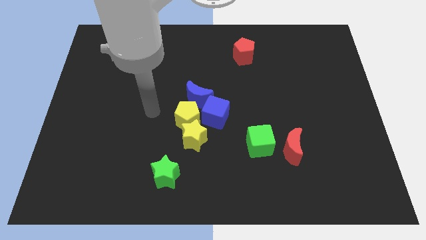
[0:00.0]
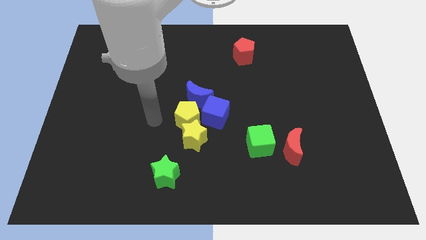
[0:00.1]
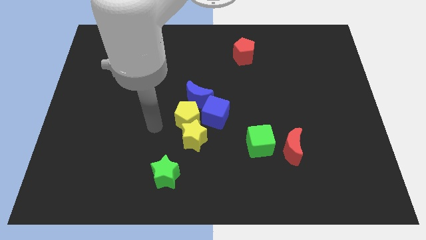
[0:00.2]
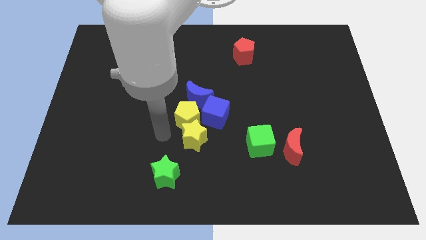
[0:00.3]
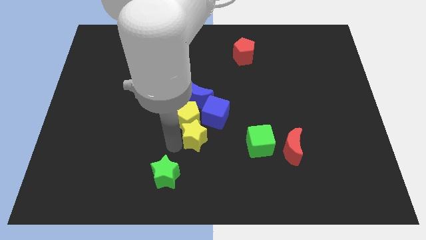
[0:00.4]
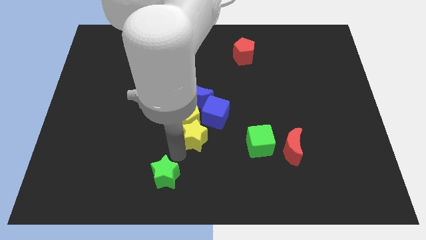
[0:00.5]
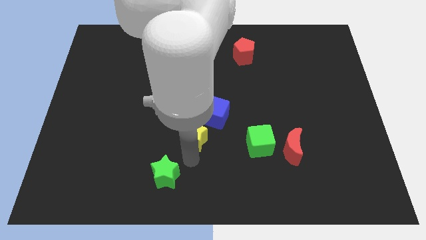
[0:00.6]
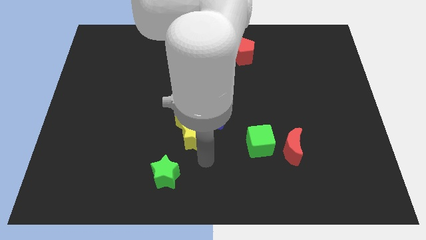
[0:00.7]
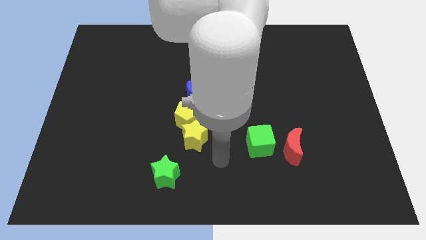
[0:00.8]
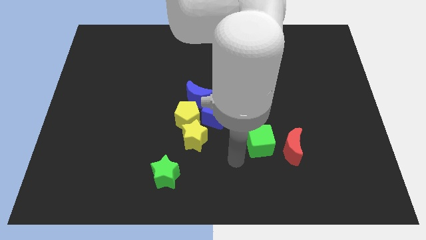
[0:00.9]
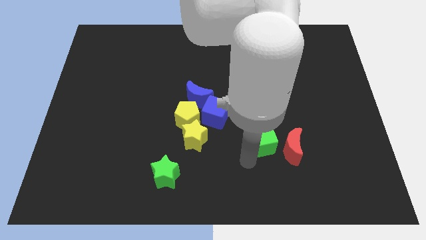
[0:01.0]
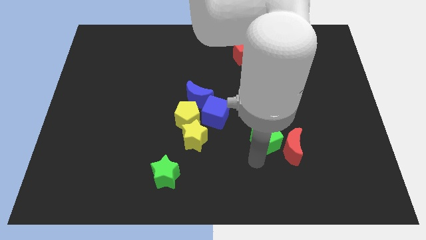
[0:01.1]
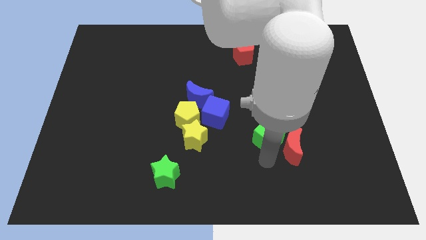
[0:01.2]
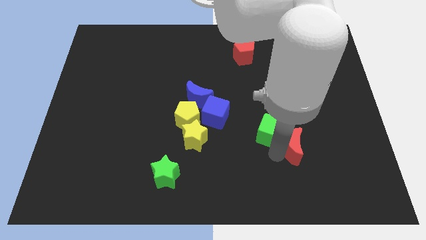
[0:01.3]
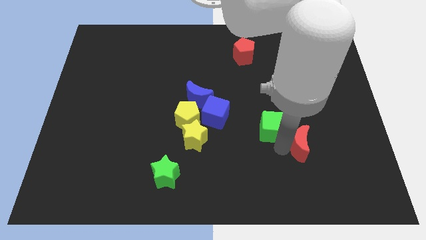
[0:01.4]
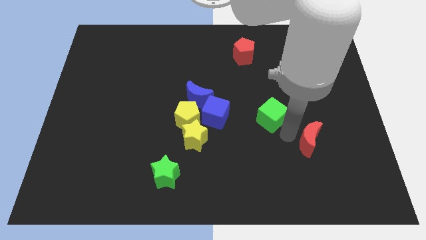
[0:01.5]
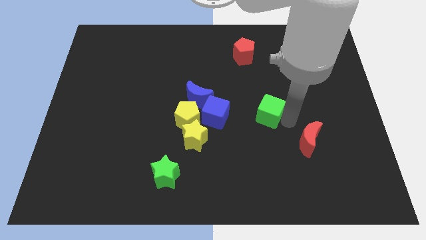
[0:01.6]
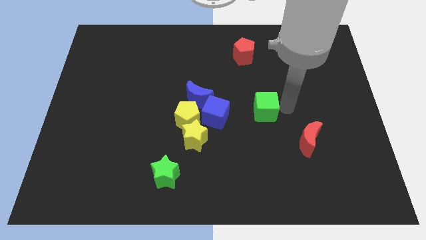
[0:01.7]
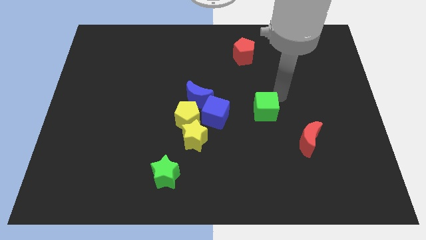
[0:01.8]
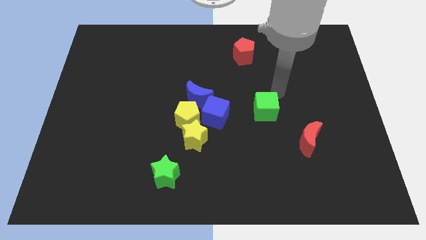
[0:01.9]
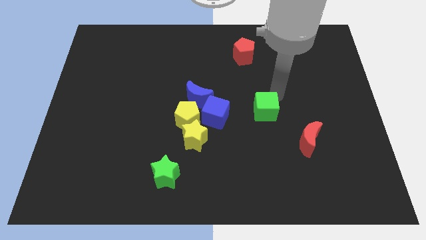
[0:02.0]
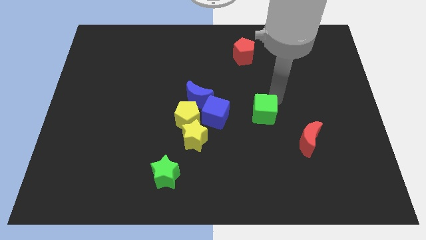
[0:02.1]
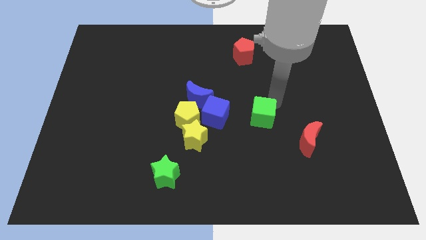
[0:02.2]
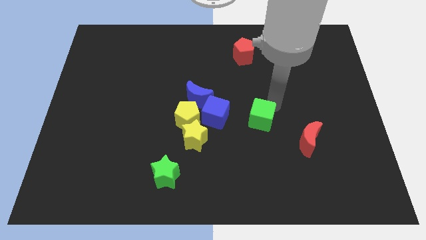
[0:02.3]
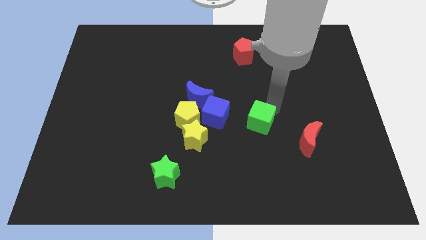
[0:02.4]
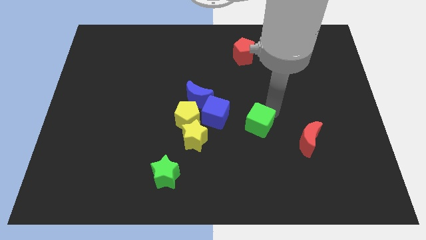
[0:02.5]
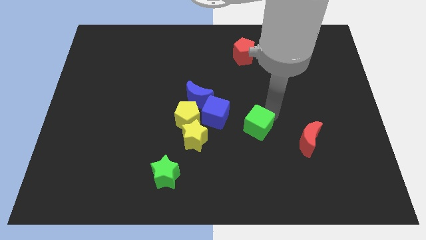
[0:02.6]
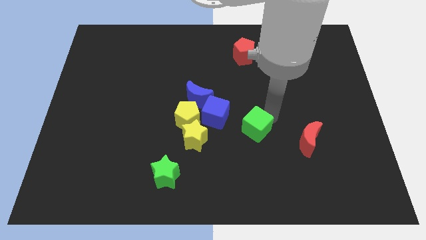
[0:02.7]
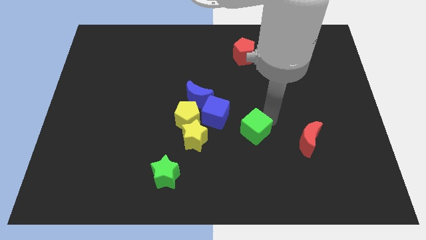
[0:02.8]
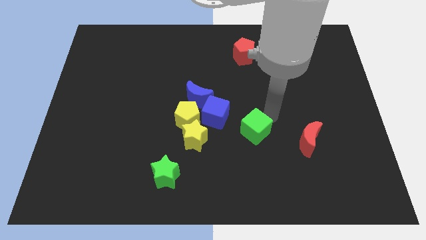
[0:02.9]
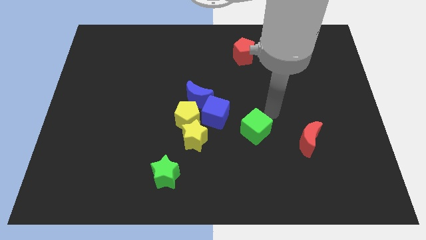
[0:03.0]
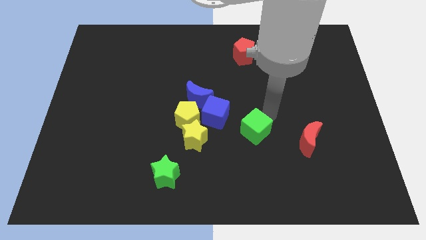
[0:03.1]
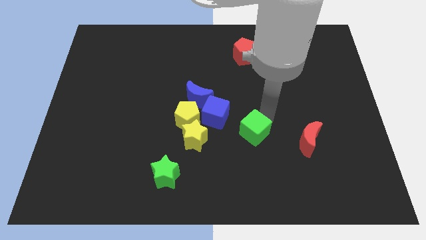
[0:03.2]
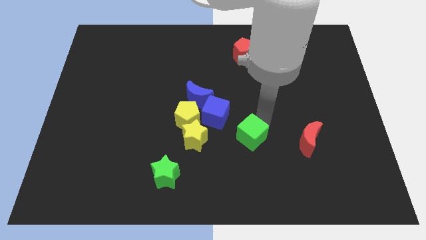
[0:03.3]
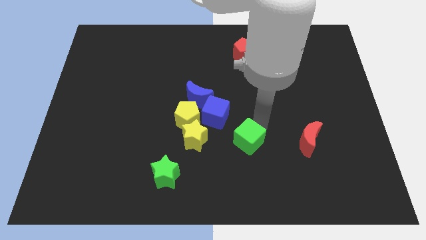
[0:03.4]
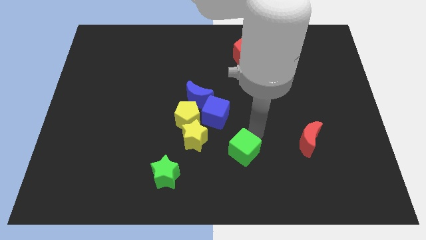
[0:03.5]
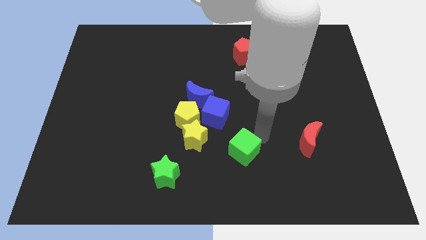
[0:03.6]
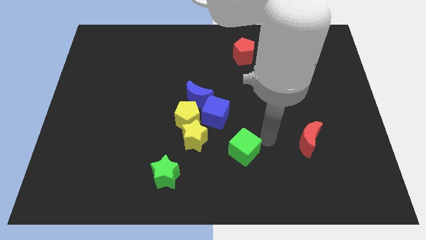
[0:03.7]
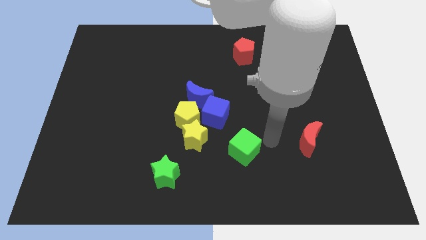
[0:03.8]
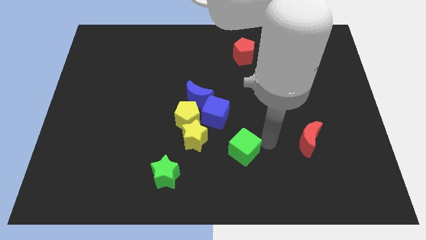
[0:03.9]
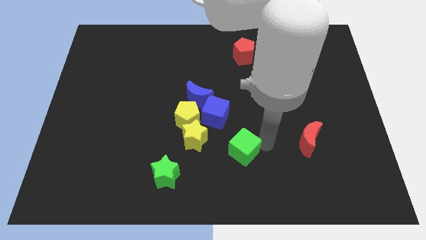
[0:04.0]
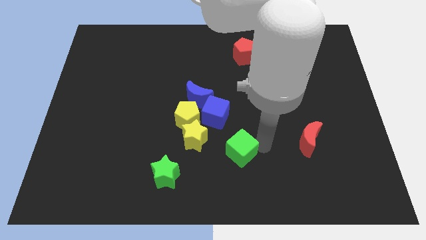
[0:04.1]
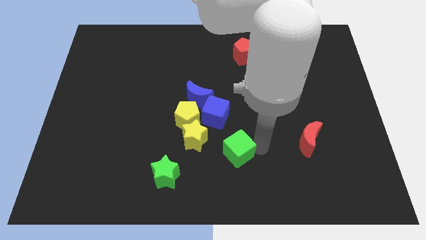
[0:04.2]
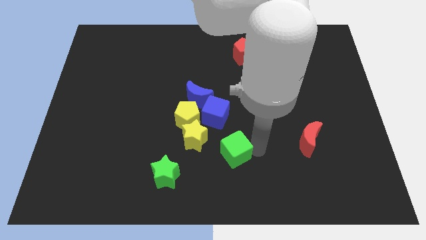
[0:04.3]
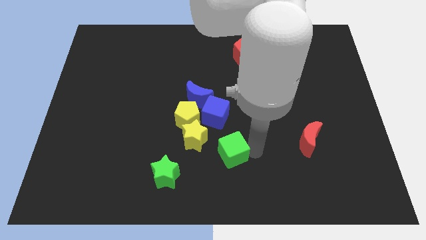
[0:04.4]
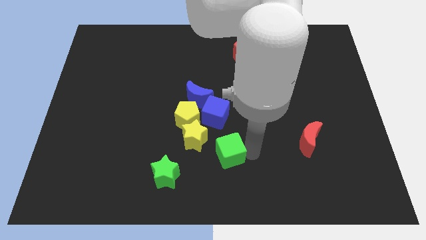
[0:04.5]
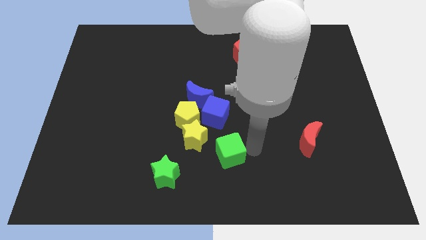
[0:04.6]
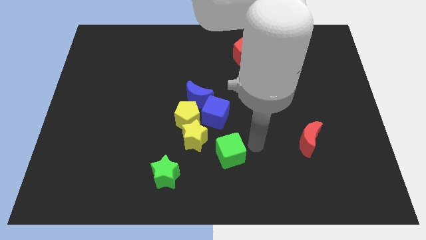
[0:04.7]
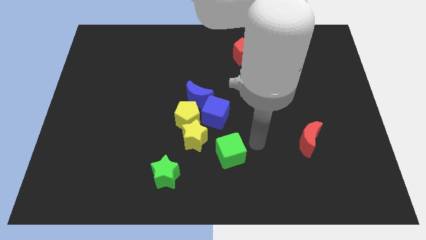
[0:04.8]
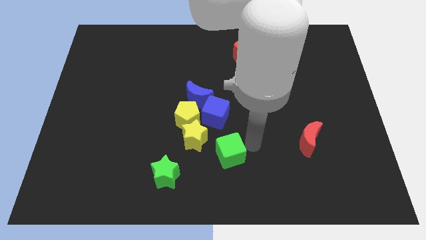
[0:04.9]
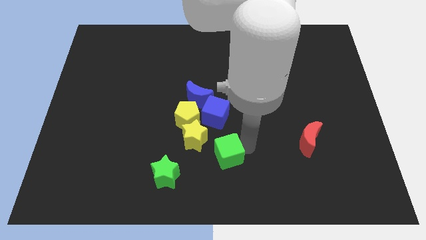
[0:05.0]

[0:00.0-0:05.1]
move the green cube to the left somewhat

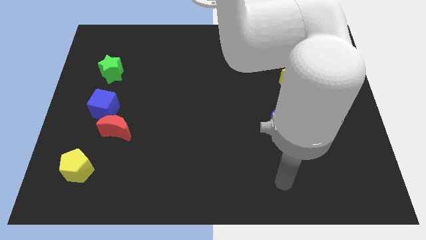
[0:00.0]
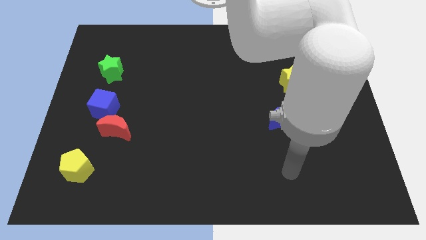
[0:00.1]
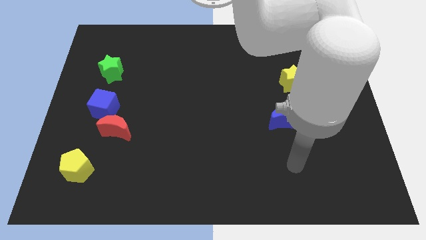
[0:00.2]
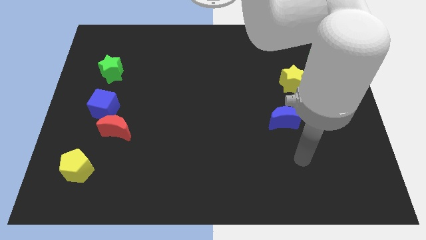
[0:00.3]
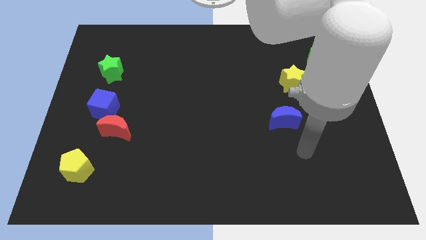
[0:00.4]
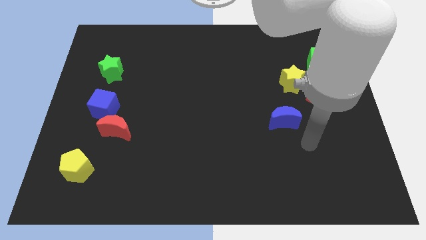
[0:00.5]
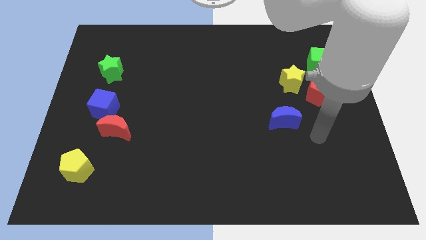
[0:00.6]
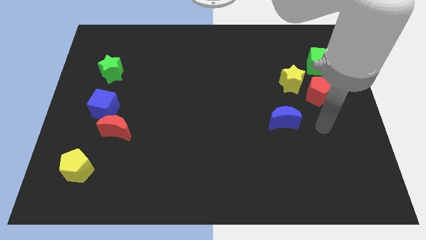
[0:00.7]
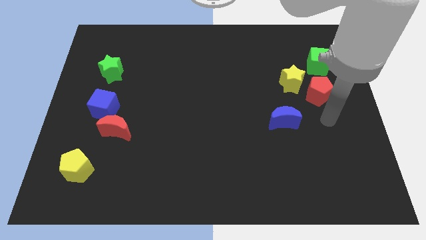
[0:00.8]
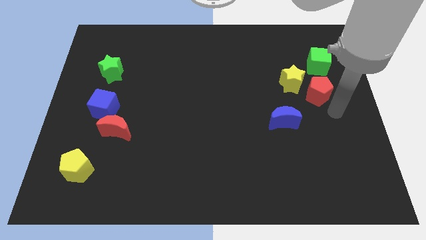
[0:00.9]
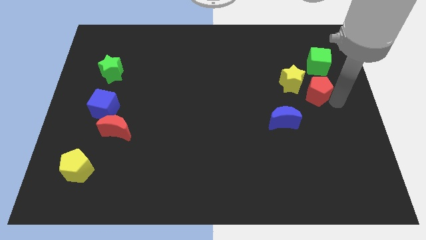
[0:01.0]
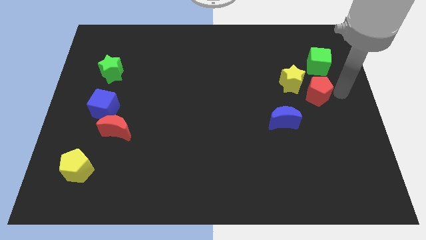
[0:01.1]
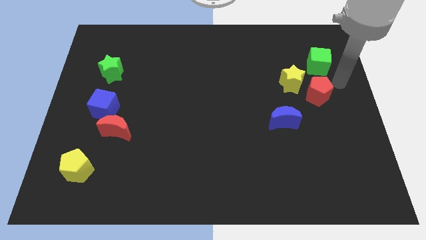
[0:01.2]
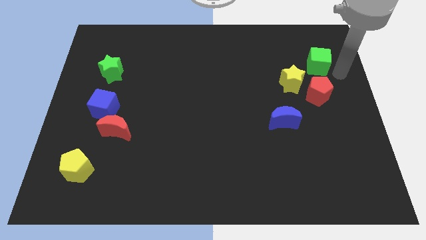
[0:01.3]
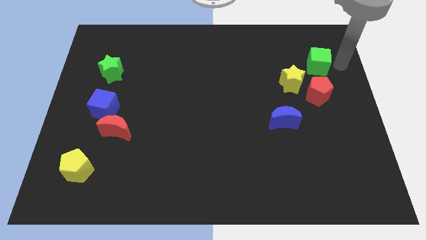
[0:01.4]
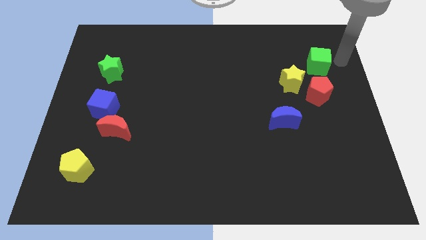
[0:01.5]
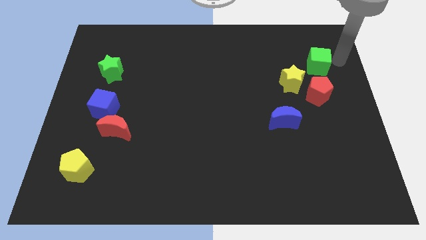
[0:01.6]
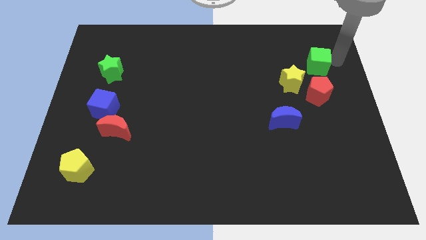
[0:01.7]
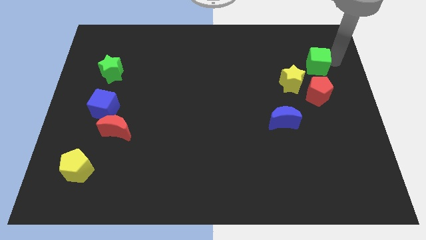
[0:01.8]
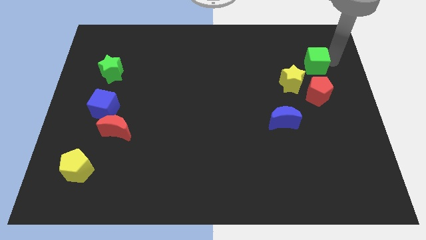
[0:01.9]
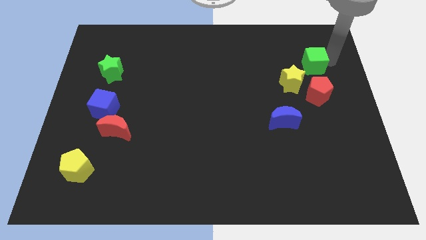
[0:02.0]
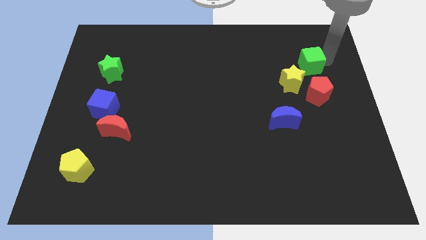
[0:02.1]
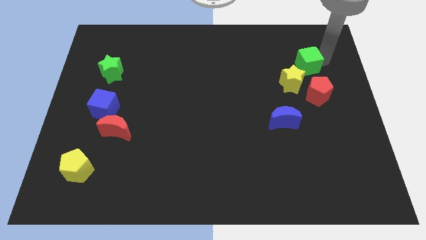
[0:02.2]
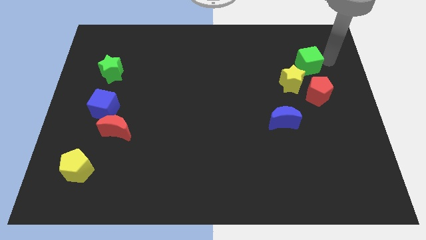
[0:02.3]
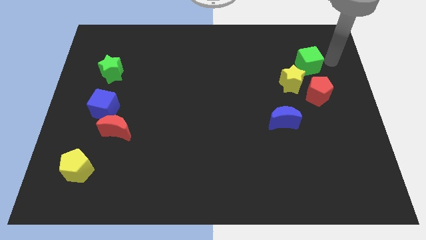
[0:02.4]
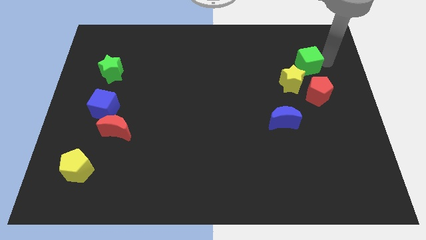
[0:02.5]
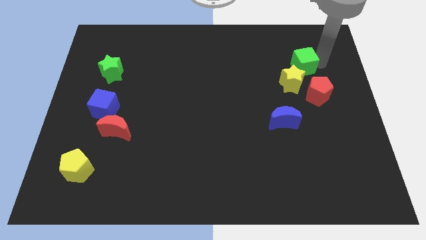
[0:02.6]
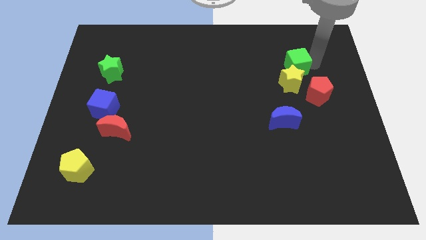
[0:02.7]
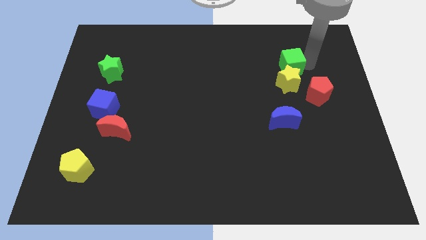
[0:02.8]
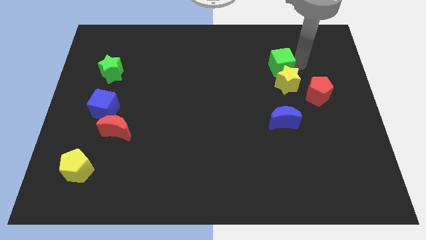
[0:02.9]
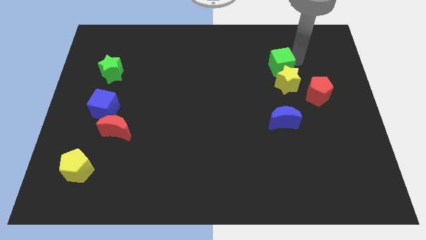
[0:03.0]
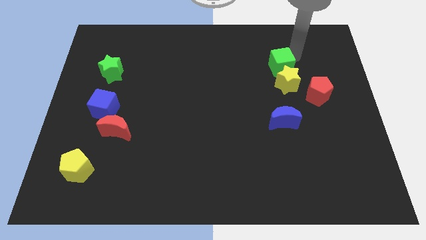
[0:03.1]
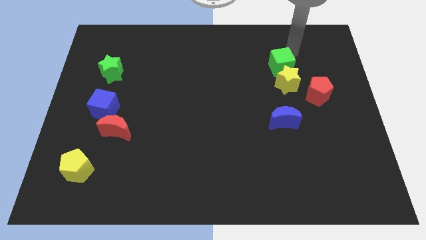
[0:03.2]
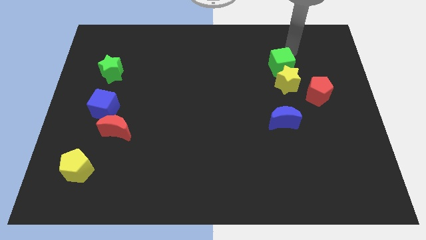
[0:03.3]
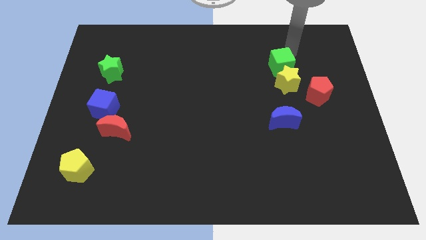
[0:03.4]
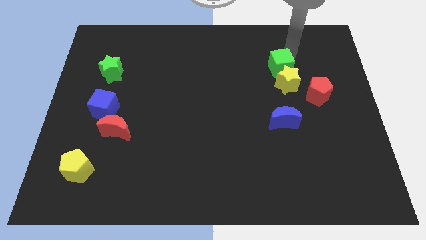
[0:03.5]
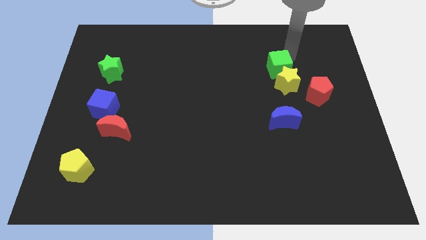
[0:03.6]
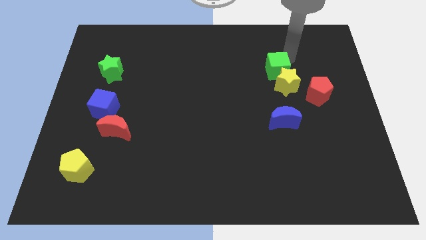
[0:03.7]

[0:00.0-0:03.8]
slide the green cube somewhat diagonally down and to the left
